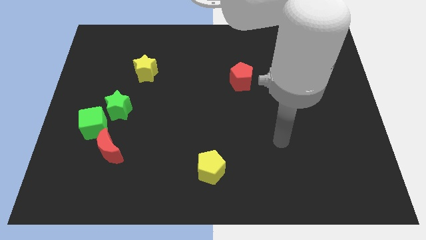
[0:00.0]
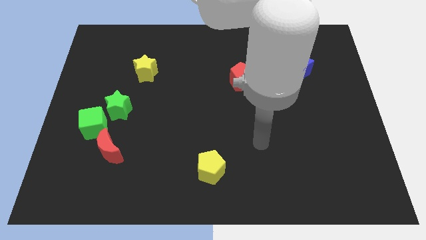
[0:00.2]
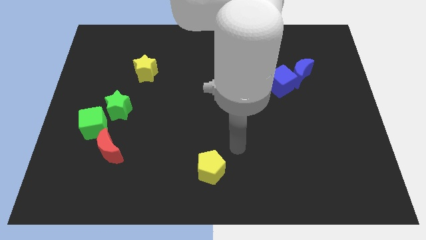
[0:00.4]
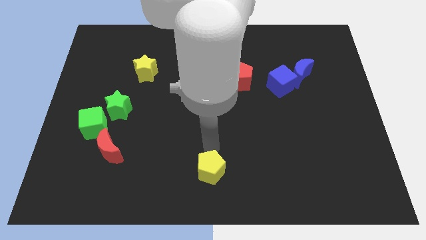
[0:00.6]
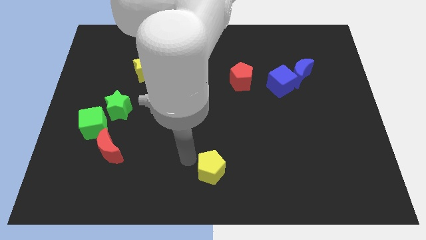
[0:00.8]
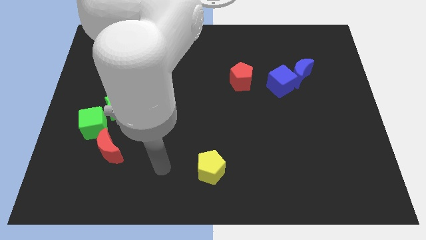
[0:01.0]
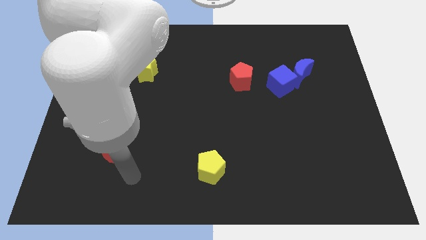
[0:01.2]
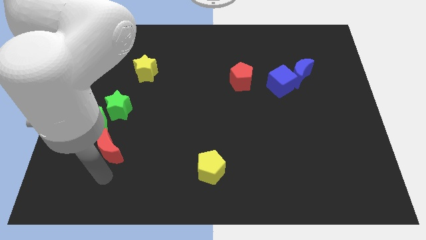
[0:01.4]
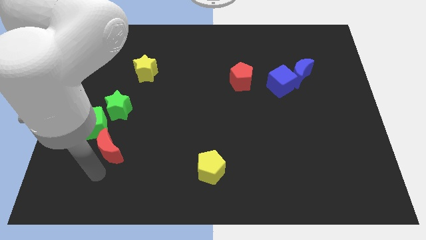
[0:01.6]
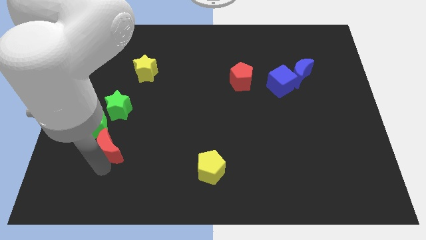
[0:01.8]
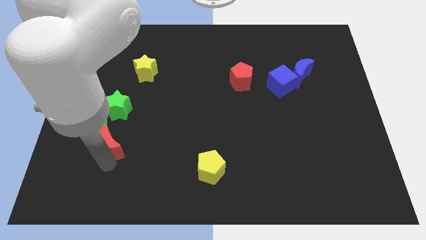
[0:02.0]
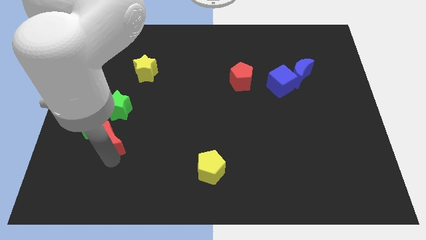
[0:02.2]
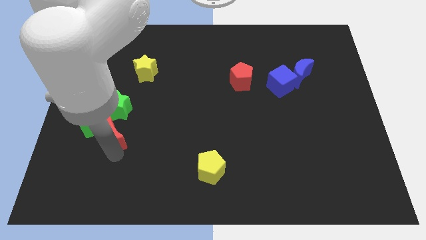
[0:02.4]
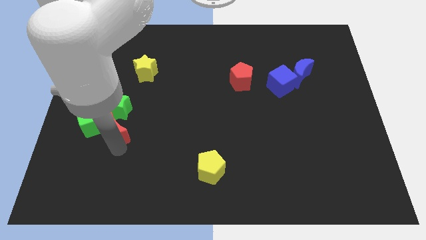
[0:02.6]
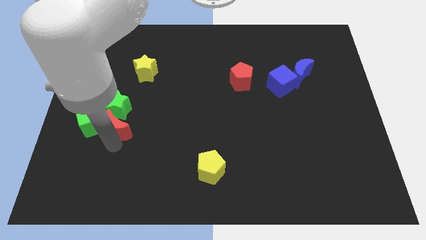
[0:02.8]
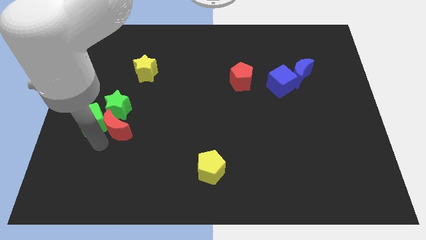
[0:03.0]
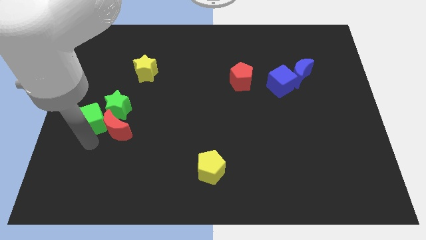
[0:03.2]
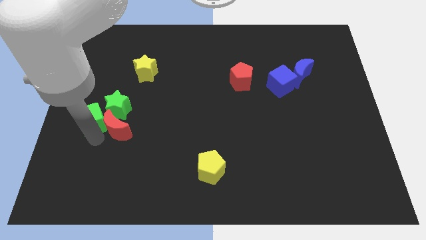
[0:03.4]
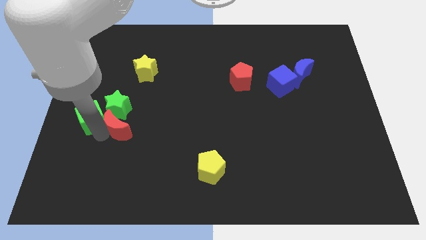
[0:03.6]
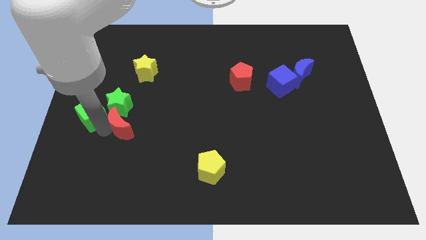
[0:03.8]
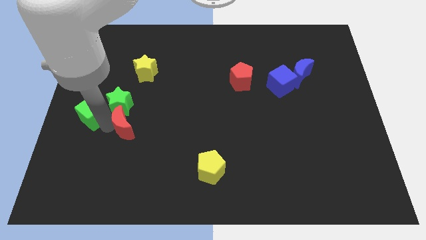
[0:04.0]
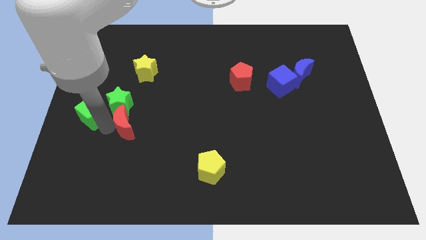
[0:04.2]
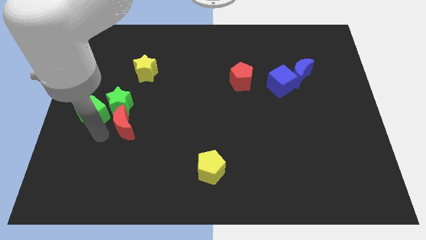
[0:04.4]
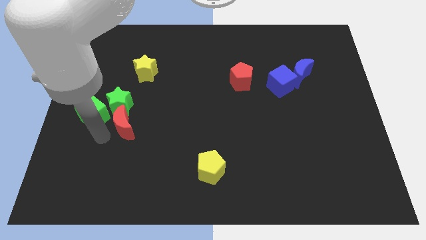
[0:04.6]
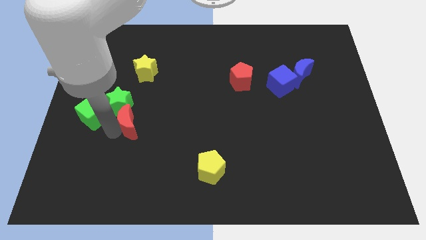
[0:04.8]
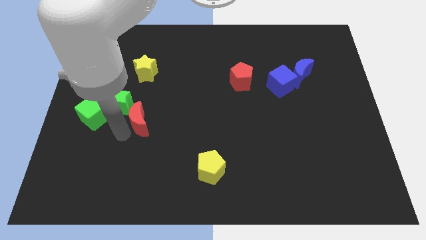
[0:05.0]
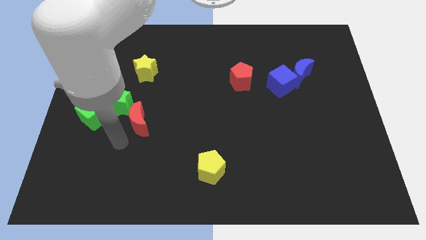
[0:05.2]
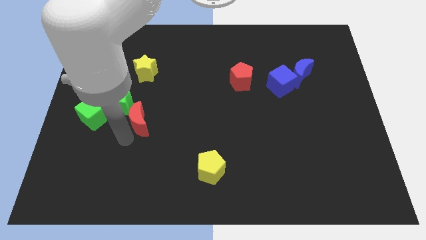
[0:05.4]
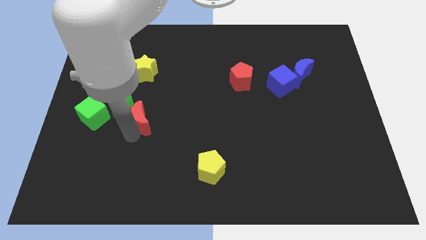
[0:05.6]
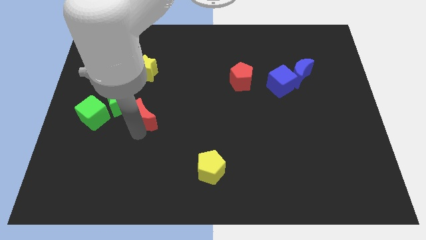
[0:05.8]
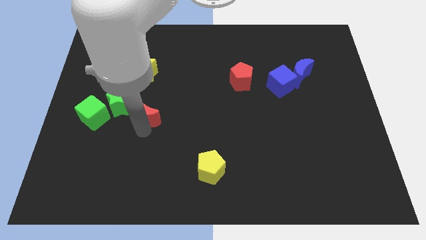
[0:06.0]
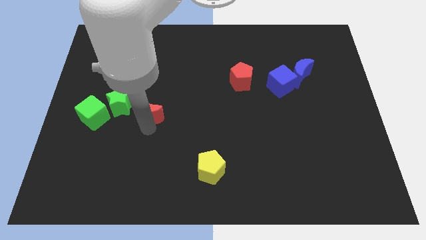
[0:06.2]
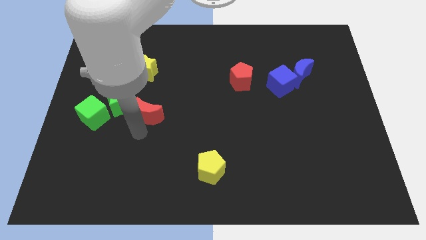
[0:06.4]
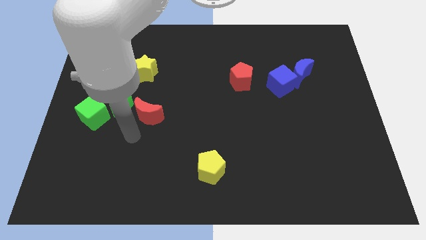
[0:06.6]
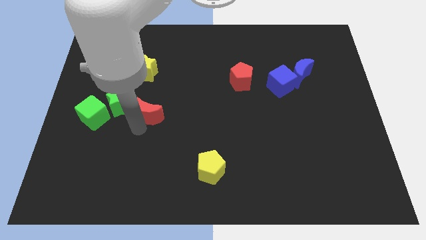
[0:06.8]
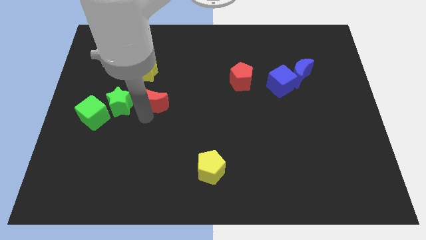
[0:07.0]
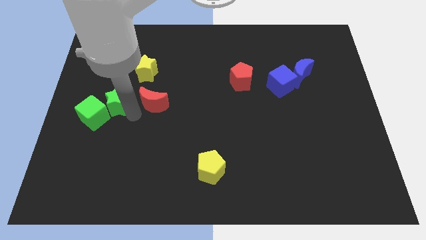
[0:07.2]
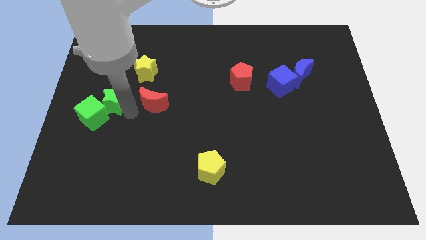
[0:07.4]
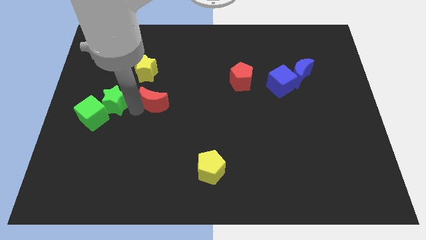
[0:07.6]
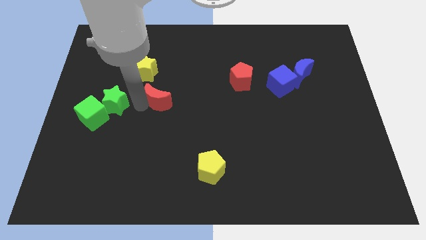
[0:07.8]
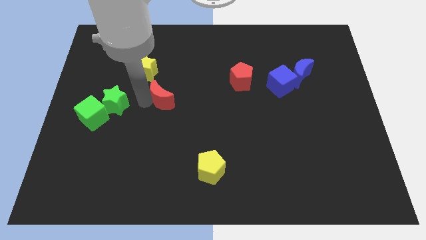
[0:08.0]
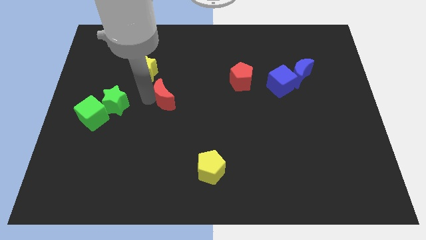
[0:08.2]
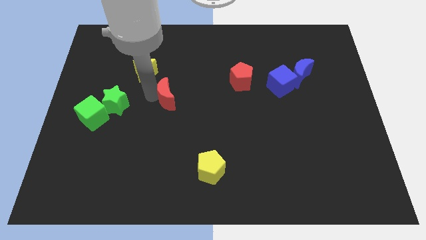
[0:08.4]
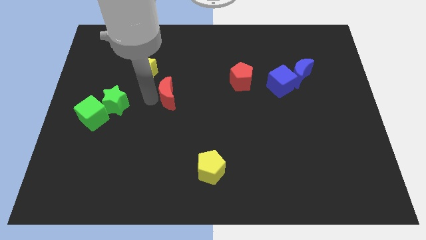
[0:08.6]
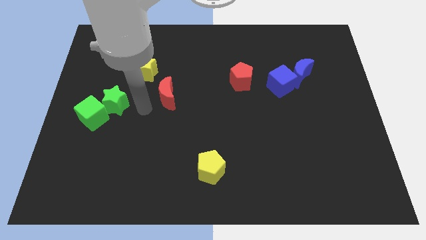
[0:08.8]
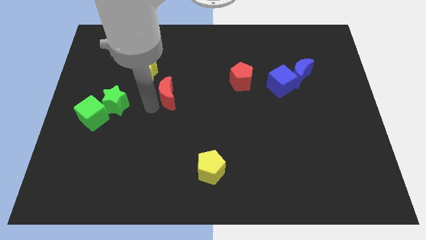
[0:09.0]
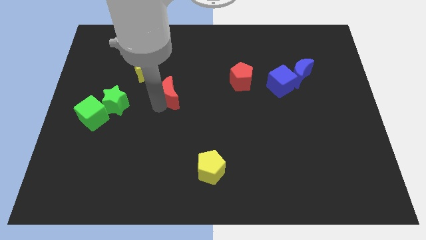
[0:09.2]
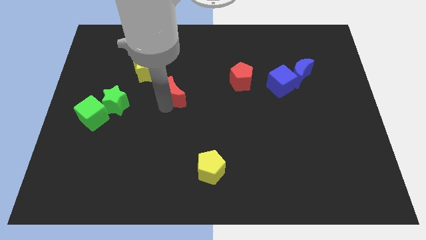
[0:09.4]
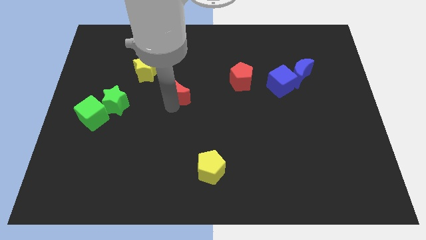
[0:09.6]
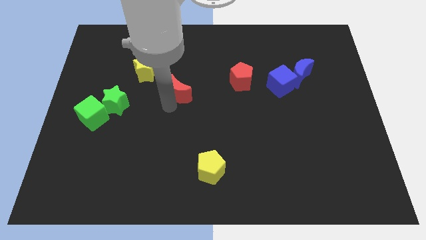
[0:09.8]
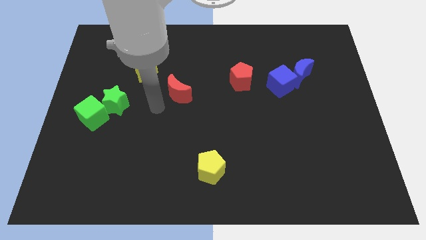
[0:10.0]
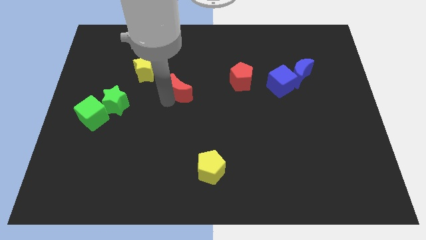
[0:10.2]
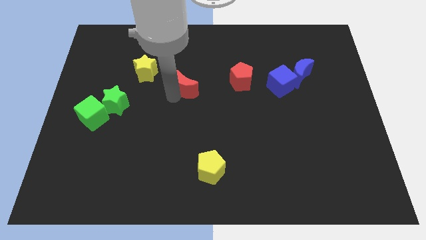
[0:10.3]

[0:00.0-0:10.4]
move the red moon just left of the red pentagon

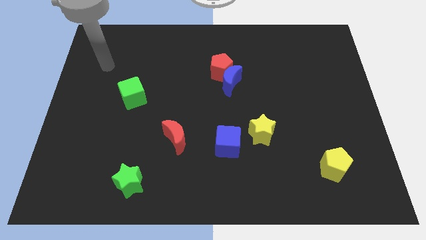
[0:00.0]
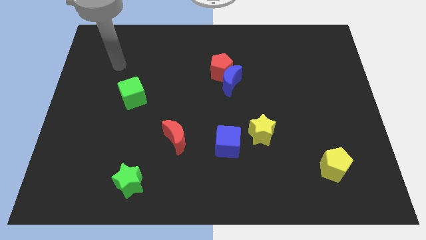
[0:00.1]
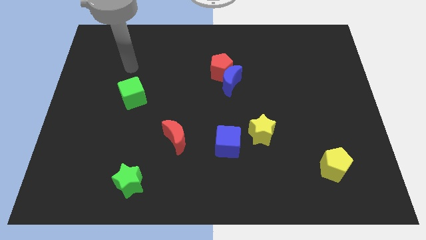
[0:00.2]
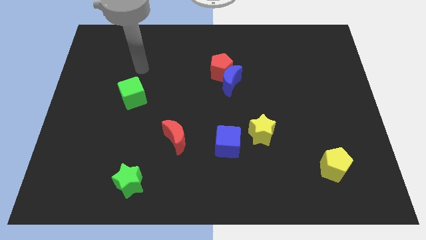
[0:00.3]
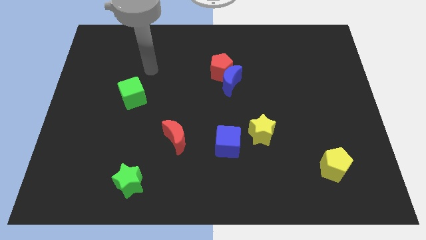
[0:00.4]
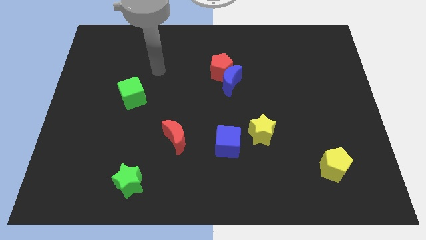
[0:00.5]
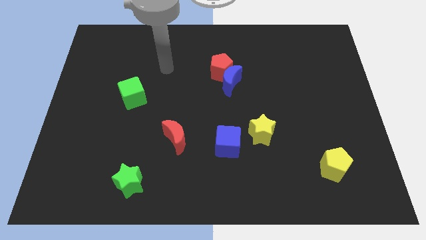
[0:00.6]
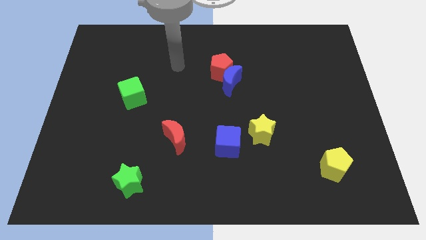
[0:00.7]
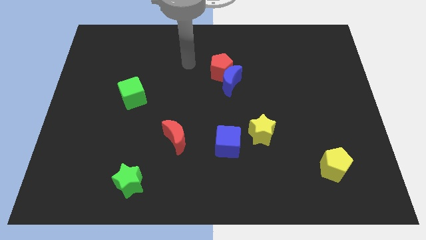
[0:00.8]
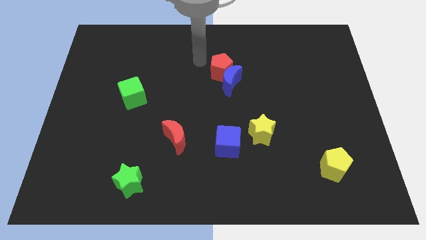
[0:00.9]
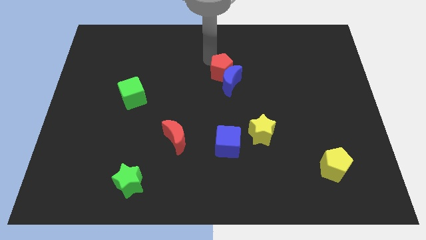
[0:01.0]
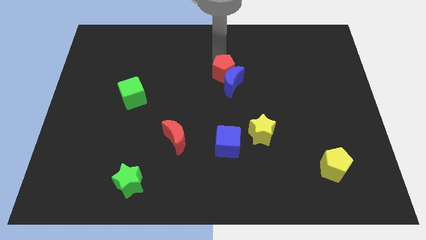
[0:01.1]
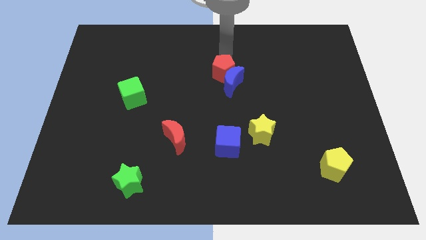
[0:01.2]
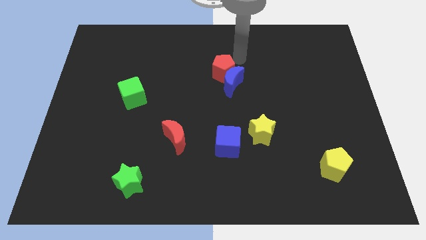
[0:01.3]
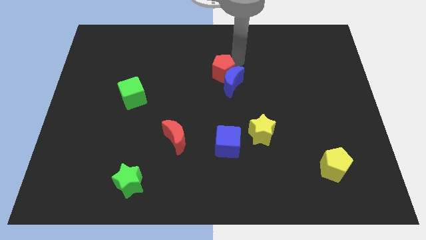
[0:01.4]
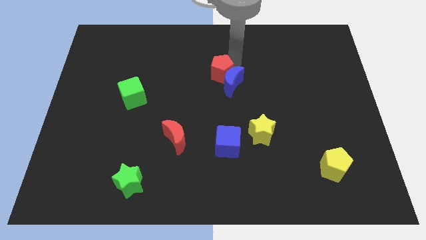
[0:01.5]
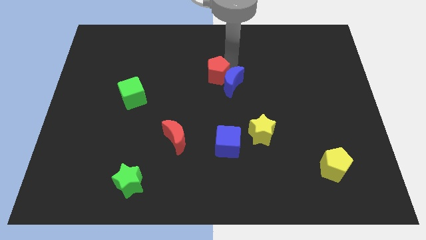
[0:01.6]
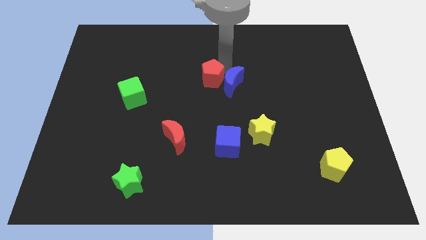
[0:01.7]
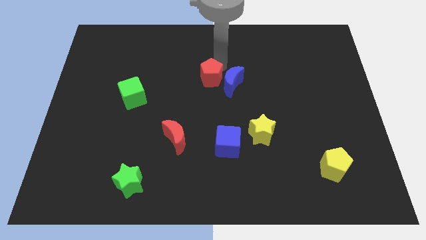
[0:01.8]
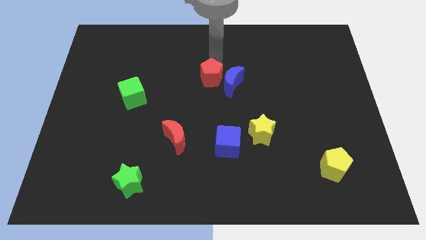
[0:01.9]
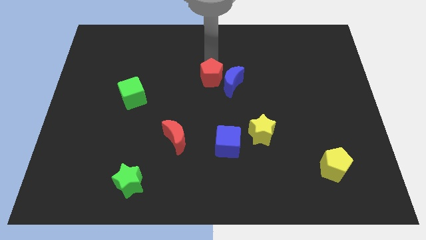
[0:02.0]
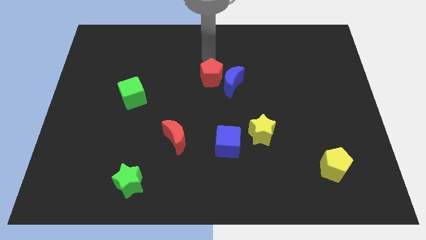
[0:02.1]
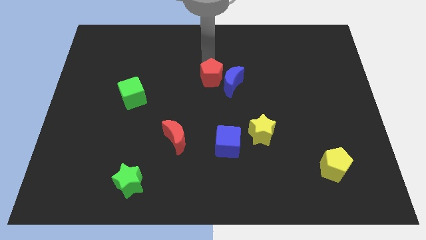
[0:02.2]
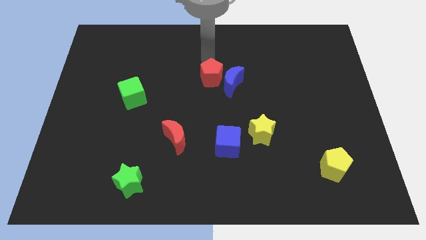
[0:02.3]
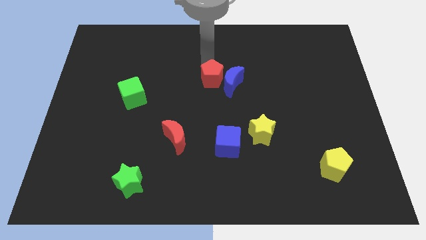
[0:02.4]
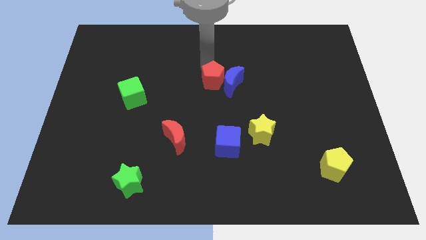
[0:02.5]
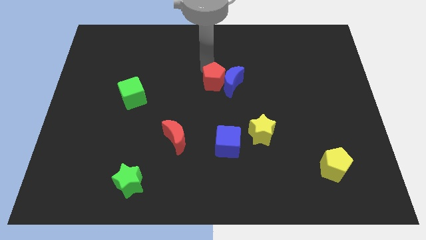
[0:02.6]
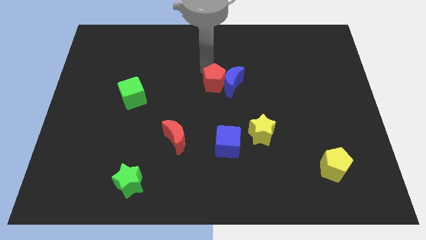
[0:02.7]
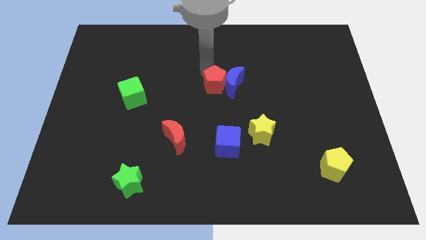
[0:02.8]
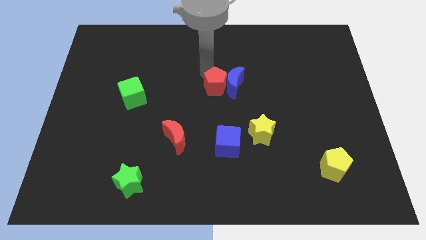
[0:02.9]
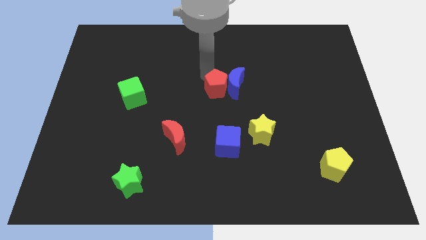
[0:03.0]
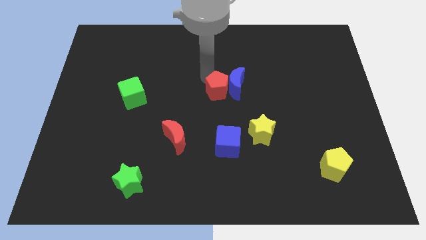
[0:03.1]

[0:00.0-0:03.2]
slide the red pentagon to the top side of the blue cube
